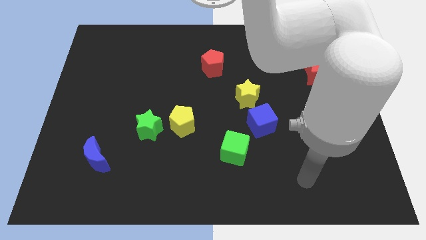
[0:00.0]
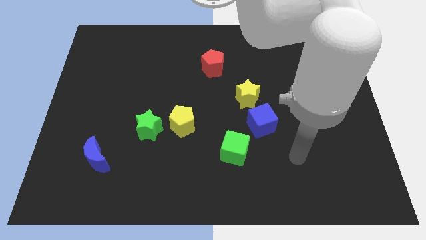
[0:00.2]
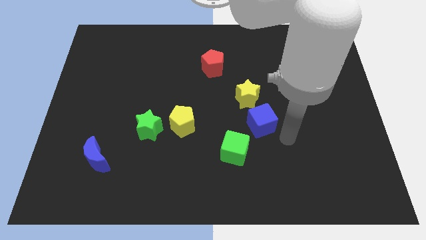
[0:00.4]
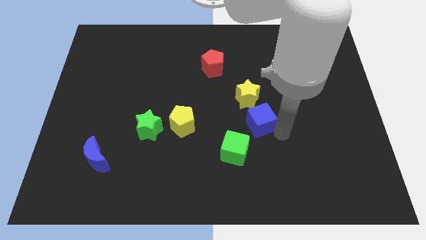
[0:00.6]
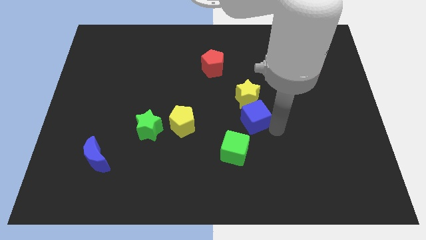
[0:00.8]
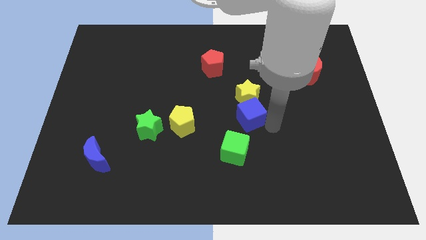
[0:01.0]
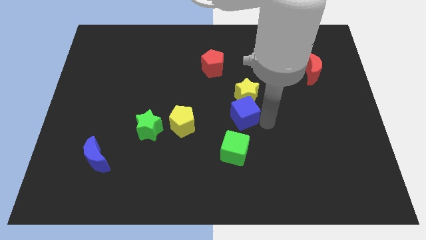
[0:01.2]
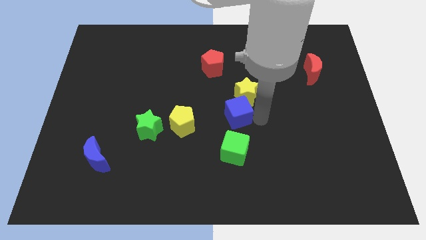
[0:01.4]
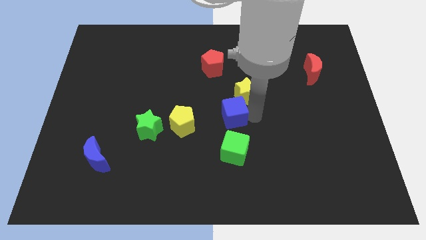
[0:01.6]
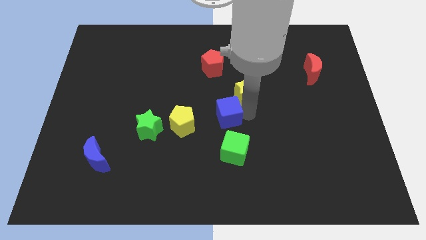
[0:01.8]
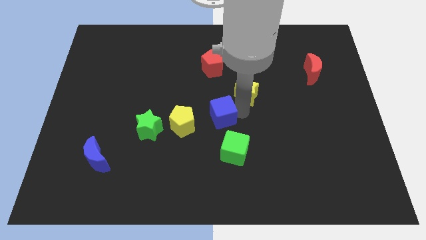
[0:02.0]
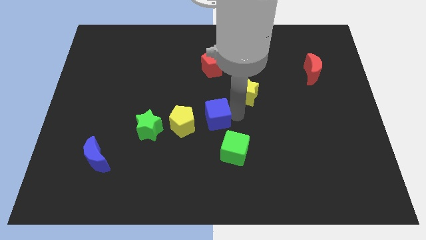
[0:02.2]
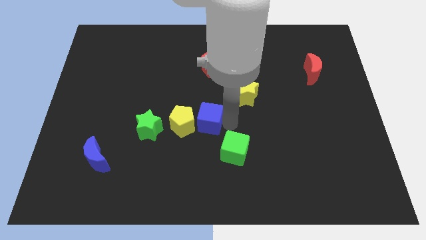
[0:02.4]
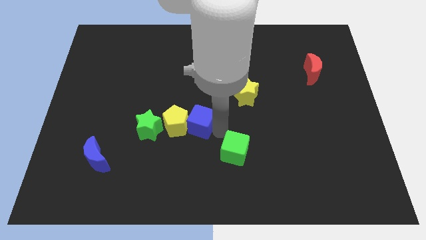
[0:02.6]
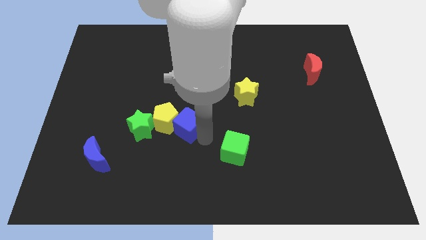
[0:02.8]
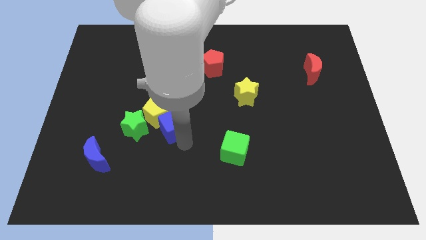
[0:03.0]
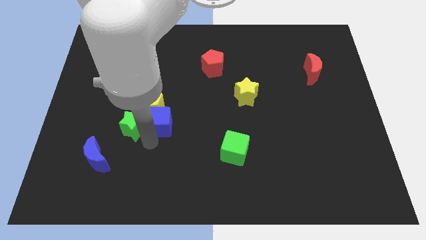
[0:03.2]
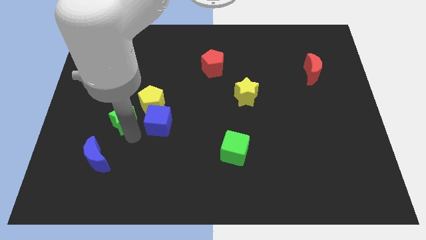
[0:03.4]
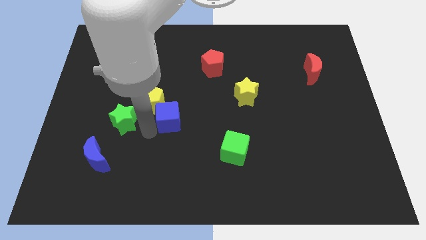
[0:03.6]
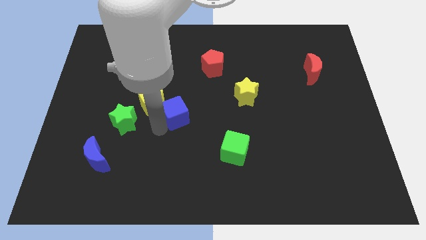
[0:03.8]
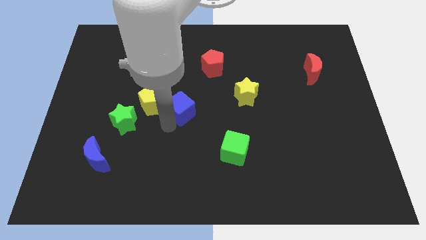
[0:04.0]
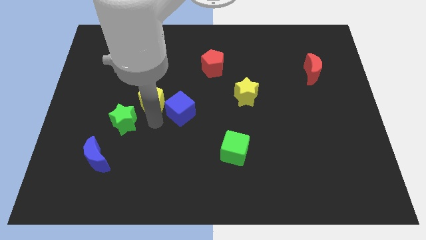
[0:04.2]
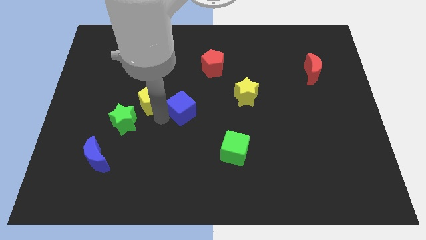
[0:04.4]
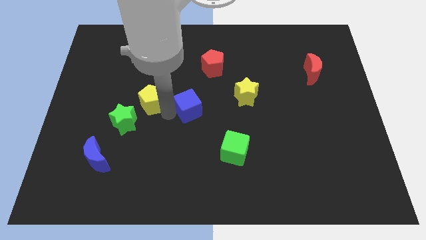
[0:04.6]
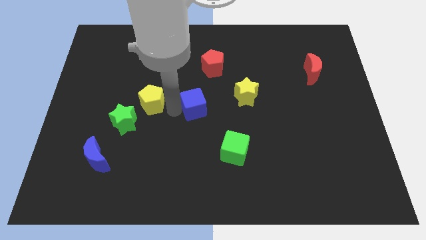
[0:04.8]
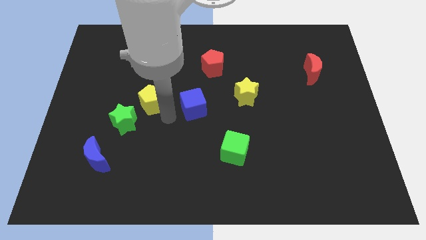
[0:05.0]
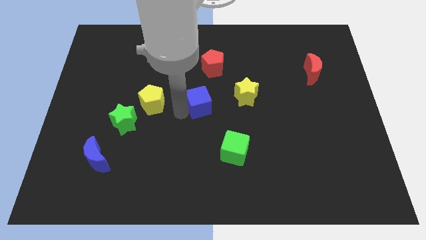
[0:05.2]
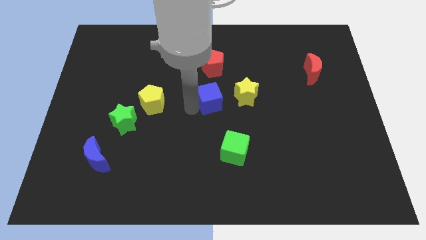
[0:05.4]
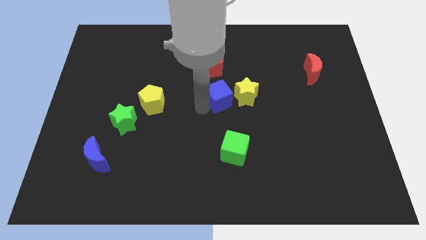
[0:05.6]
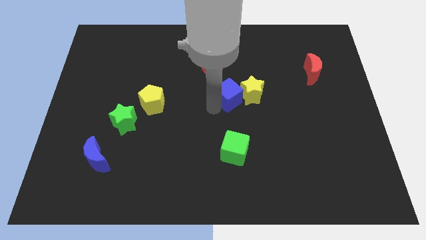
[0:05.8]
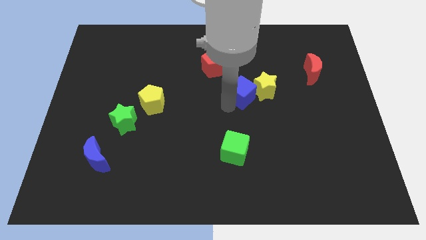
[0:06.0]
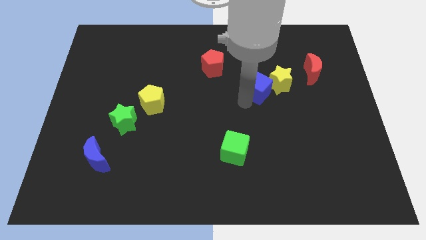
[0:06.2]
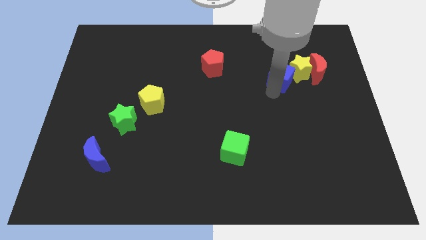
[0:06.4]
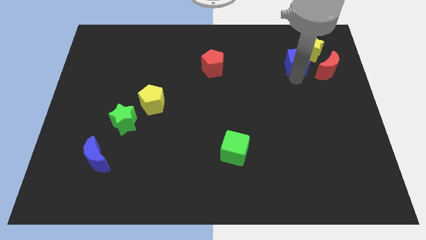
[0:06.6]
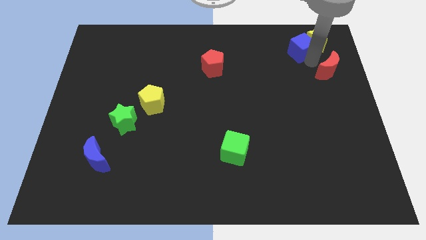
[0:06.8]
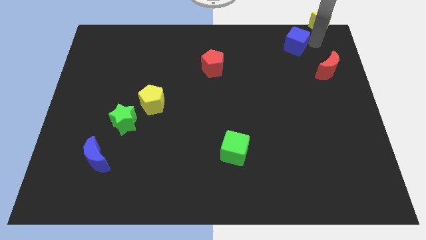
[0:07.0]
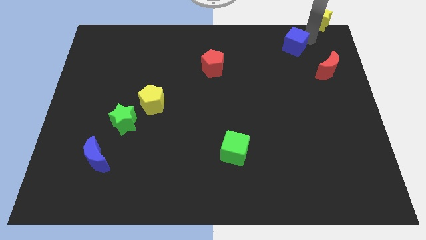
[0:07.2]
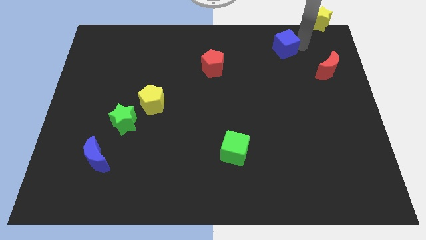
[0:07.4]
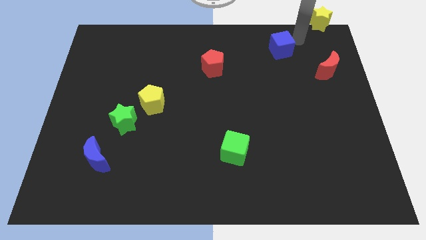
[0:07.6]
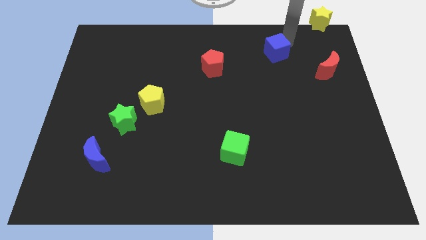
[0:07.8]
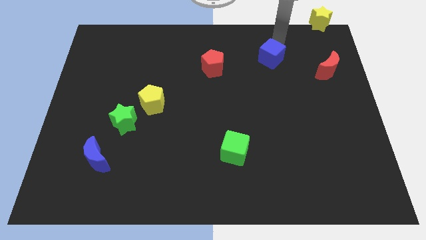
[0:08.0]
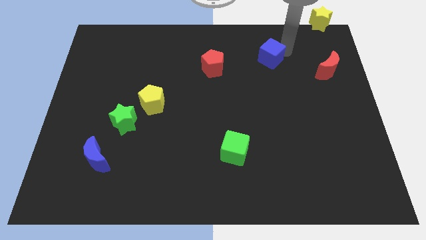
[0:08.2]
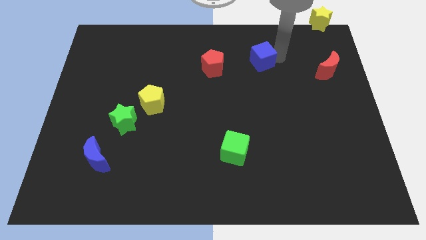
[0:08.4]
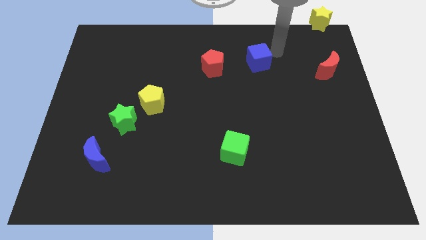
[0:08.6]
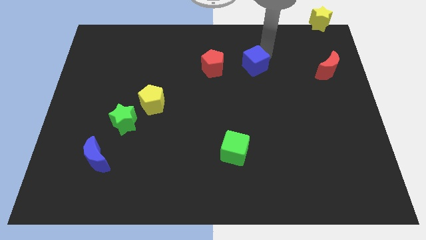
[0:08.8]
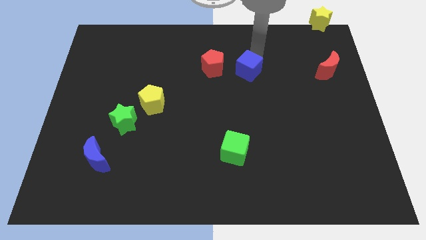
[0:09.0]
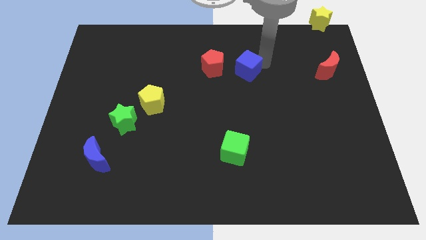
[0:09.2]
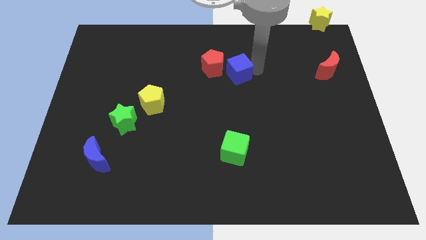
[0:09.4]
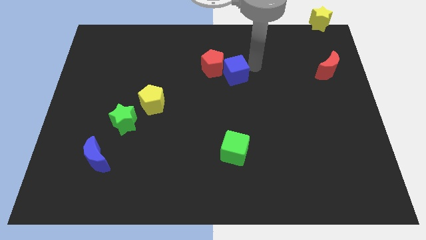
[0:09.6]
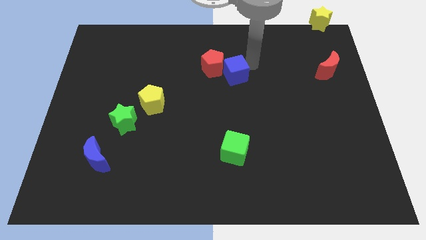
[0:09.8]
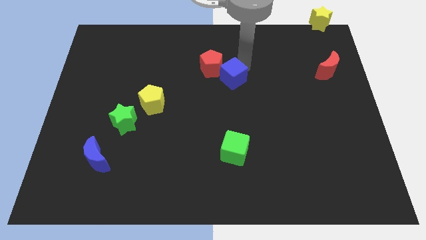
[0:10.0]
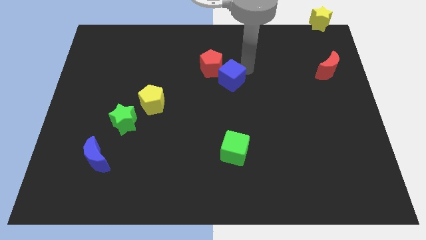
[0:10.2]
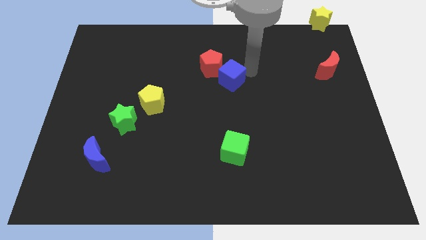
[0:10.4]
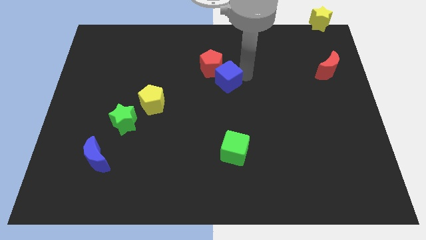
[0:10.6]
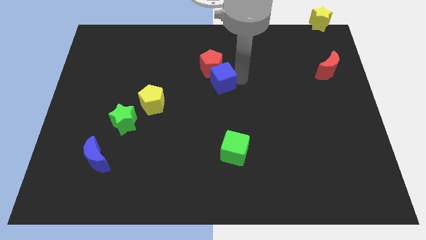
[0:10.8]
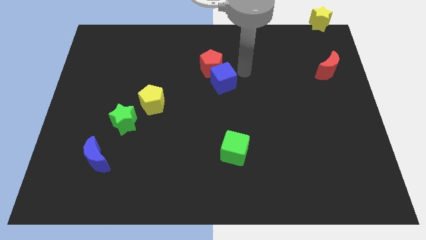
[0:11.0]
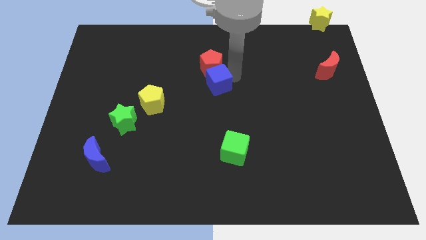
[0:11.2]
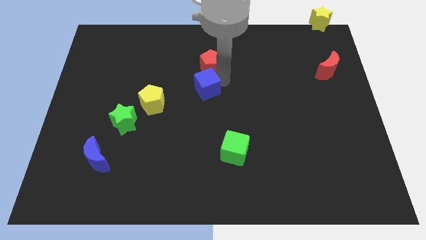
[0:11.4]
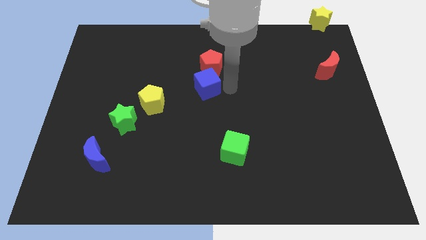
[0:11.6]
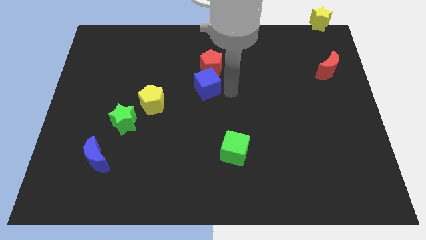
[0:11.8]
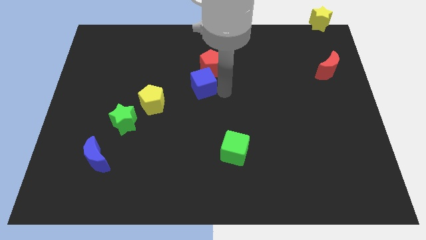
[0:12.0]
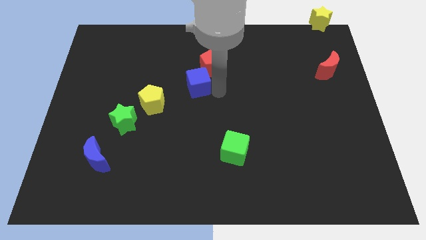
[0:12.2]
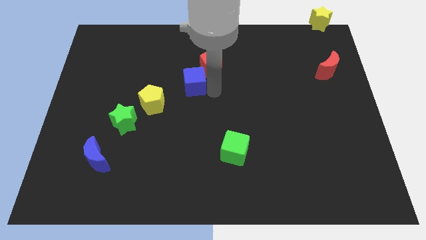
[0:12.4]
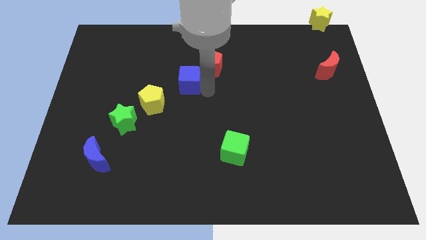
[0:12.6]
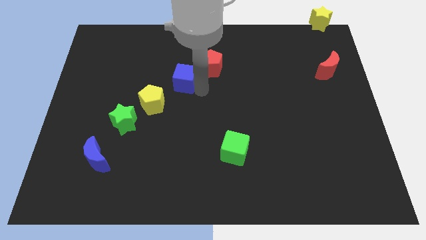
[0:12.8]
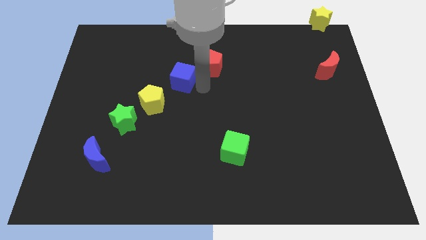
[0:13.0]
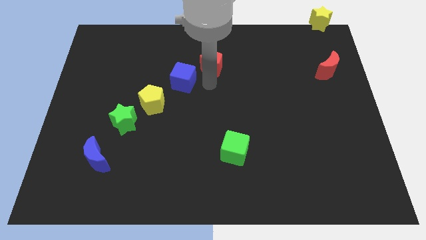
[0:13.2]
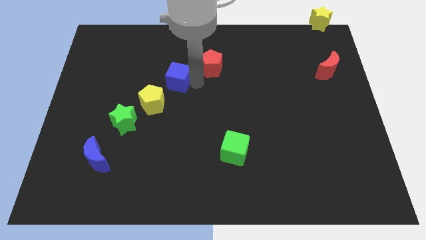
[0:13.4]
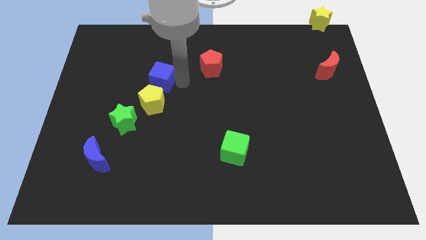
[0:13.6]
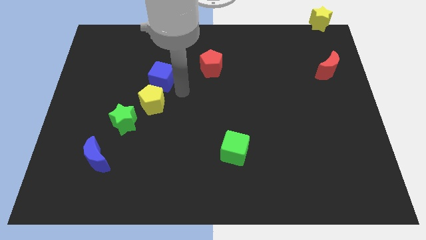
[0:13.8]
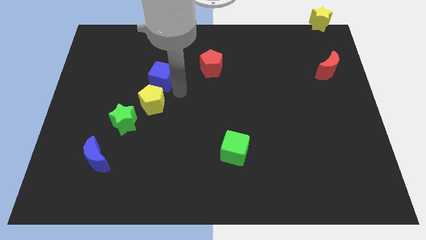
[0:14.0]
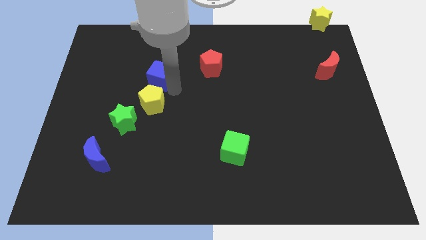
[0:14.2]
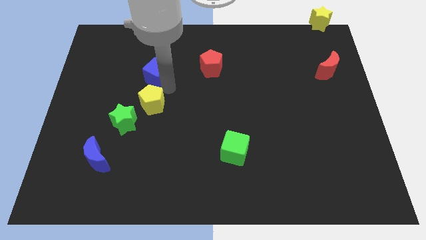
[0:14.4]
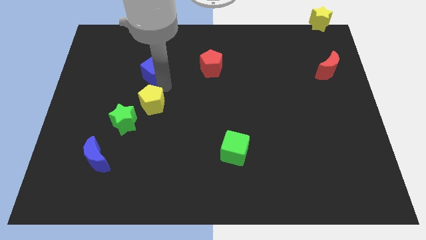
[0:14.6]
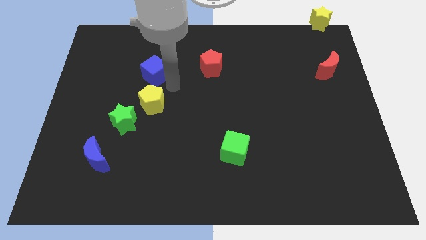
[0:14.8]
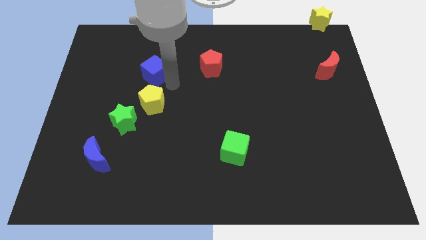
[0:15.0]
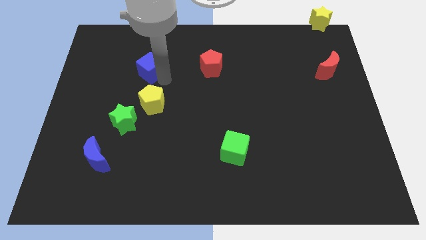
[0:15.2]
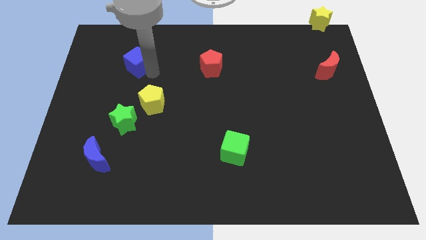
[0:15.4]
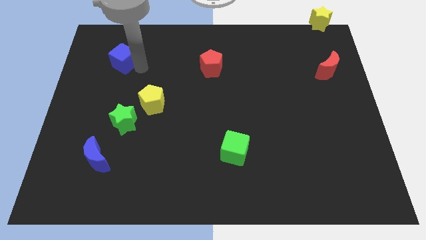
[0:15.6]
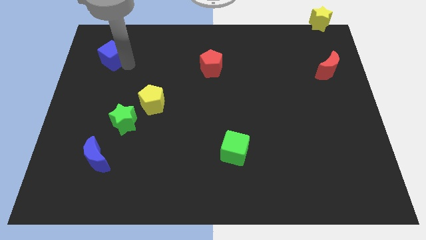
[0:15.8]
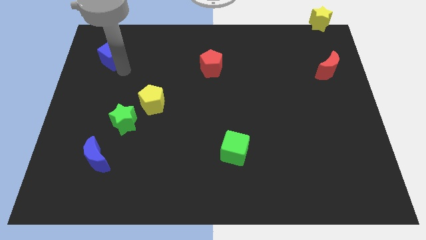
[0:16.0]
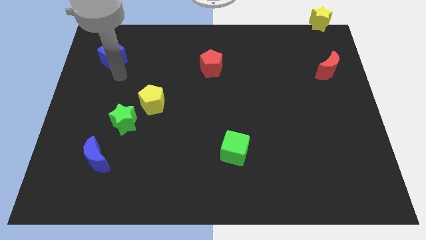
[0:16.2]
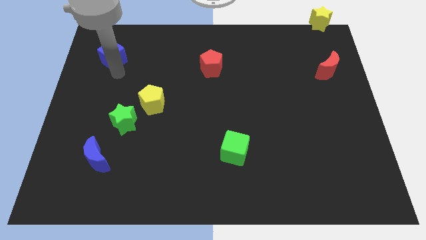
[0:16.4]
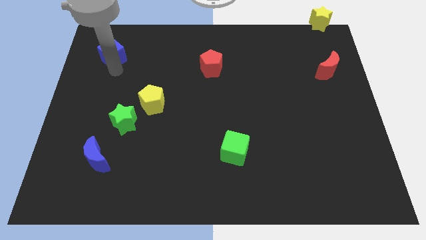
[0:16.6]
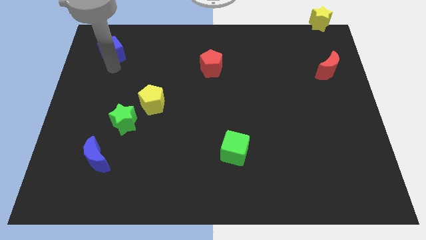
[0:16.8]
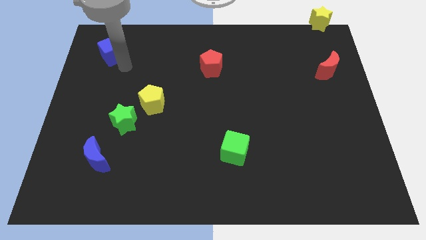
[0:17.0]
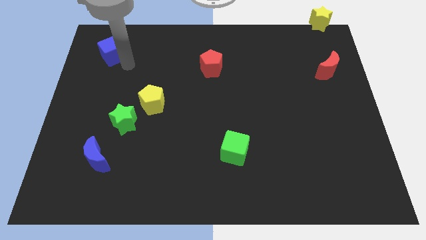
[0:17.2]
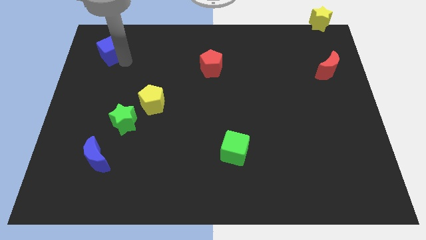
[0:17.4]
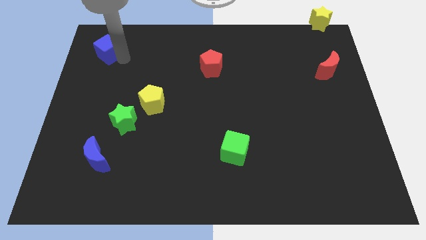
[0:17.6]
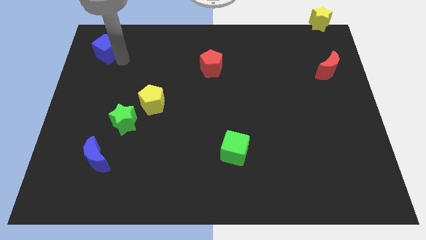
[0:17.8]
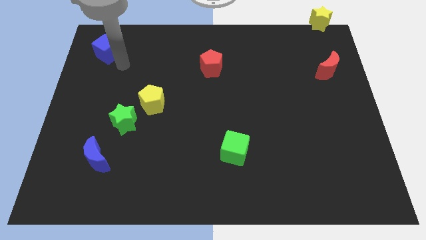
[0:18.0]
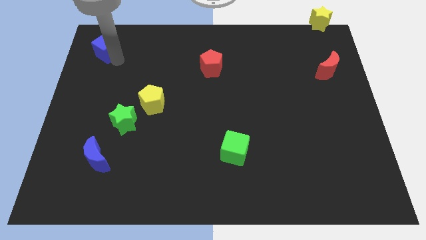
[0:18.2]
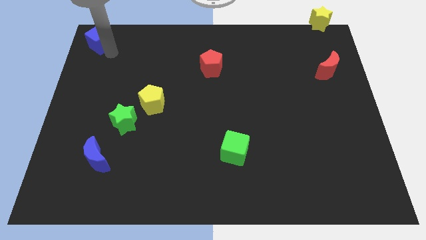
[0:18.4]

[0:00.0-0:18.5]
put the blue cube to the upper left corner
